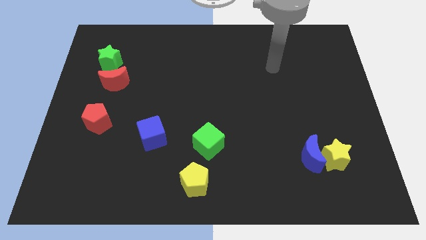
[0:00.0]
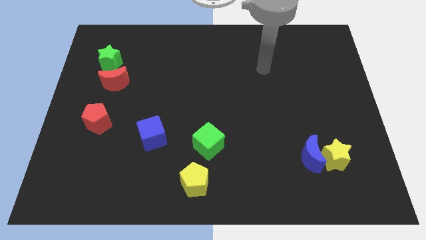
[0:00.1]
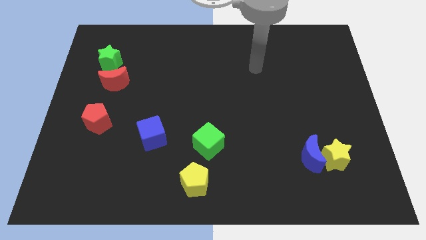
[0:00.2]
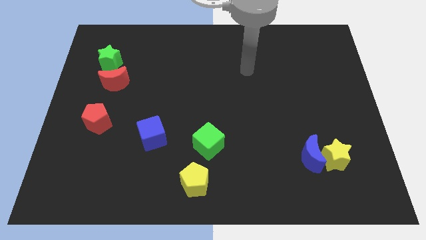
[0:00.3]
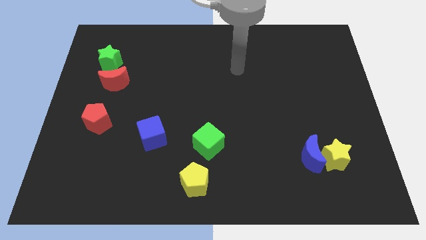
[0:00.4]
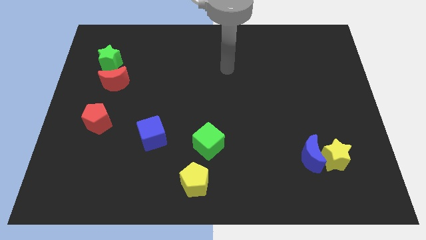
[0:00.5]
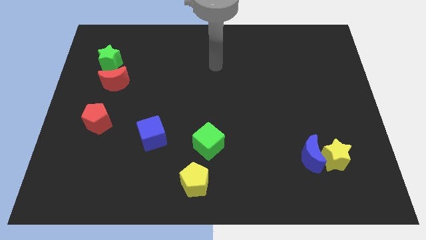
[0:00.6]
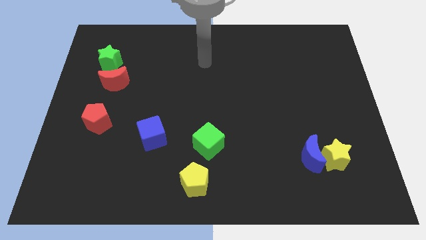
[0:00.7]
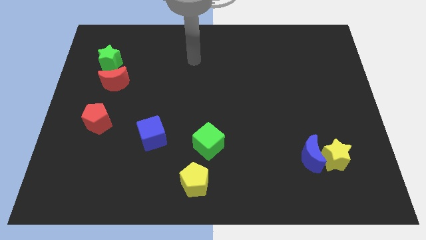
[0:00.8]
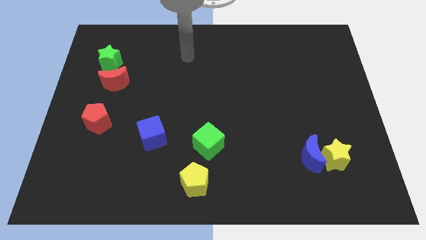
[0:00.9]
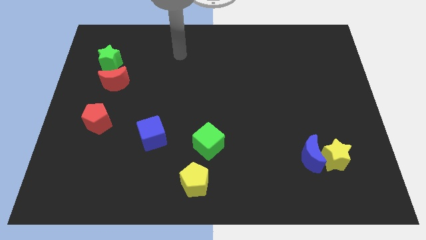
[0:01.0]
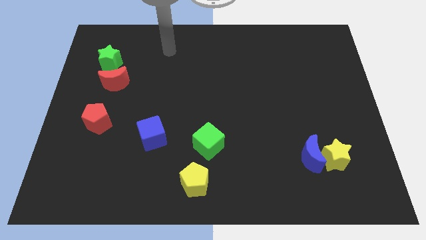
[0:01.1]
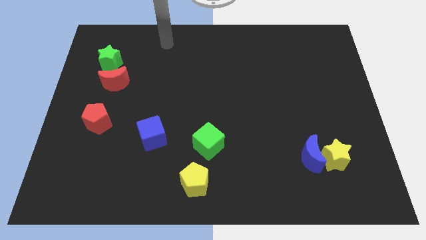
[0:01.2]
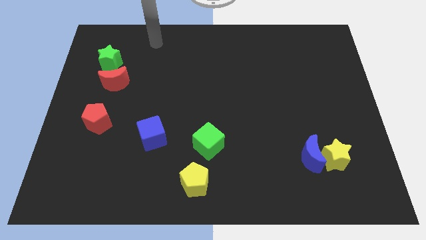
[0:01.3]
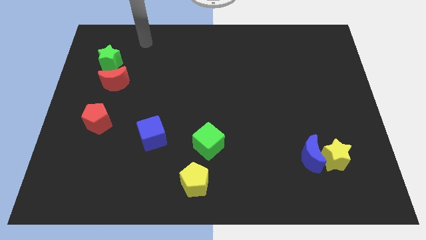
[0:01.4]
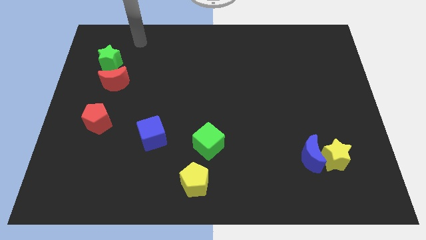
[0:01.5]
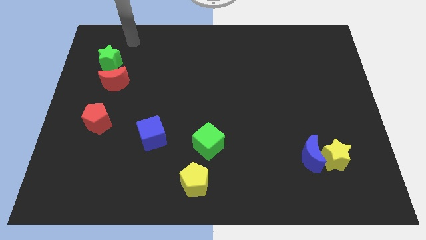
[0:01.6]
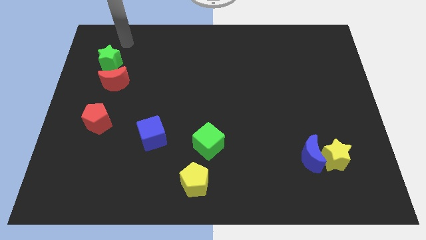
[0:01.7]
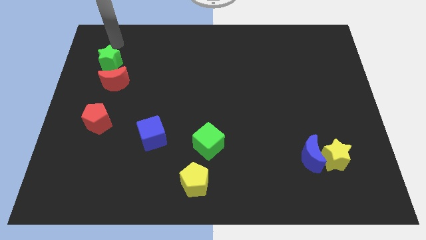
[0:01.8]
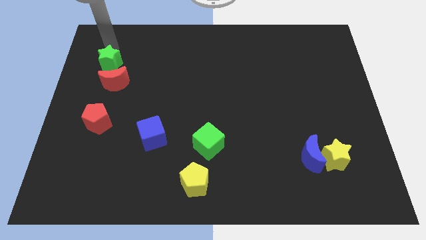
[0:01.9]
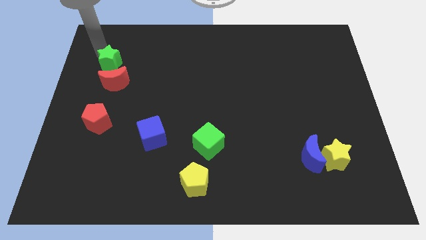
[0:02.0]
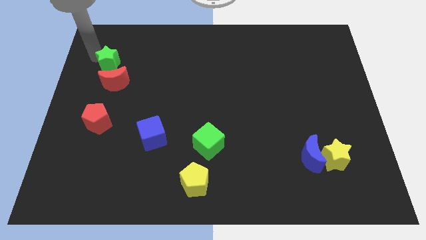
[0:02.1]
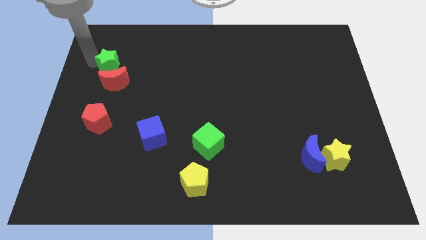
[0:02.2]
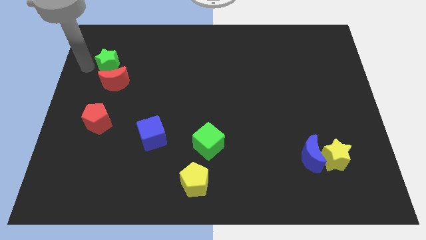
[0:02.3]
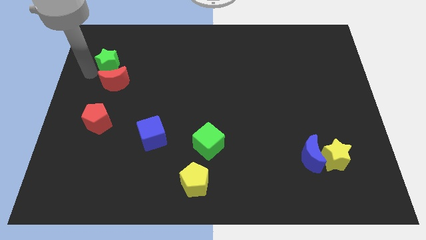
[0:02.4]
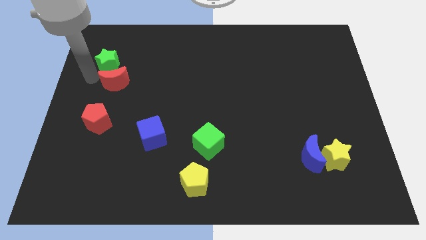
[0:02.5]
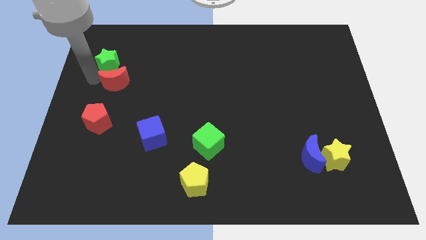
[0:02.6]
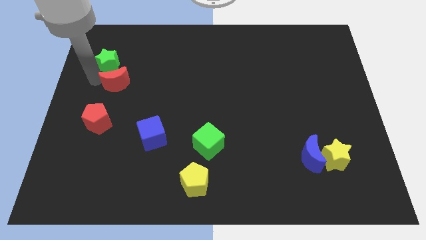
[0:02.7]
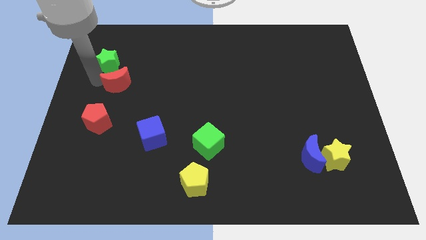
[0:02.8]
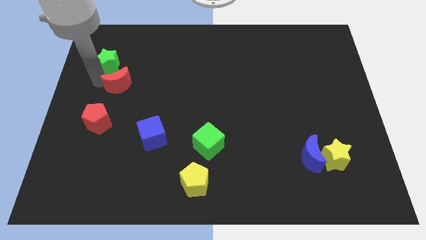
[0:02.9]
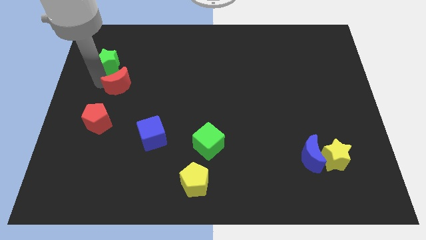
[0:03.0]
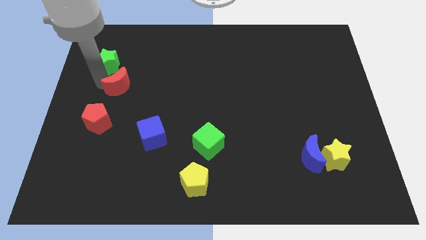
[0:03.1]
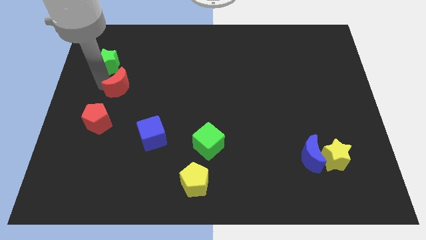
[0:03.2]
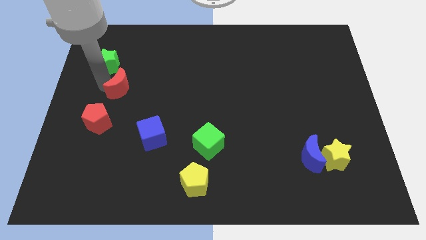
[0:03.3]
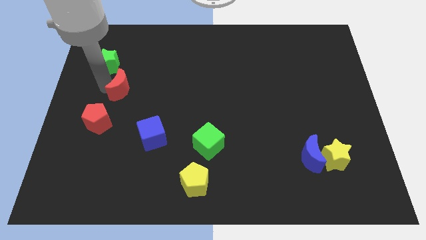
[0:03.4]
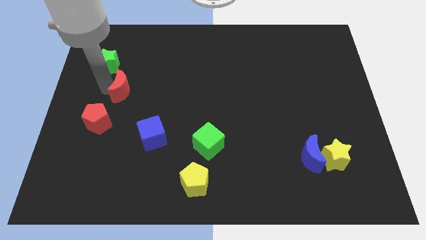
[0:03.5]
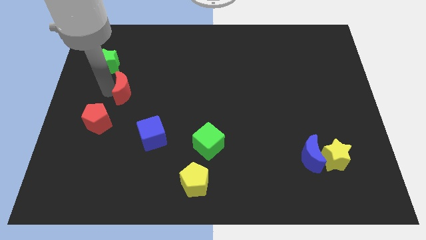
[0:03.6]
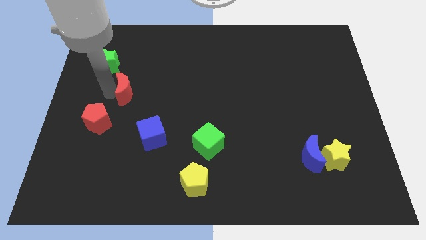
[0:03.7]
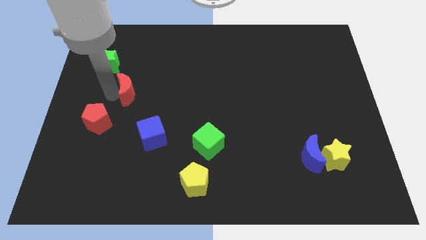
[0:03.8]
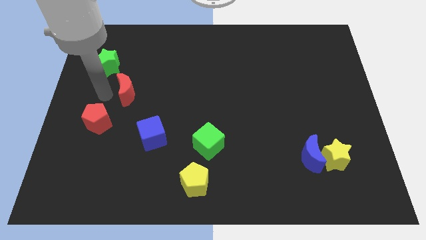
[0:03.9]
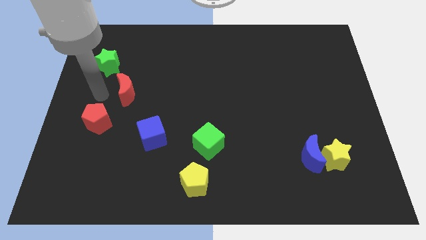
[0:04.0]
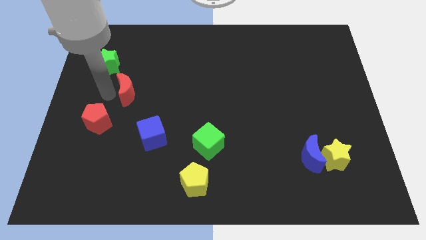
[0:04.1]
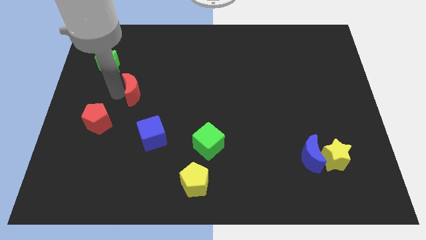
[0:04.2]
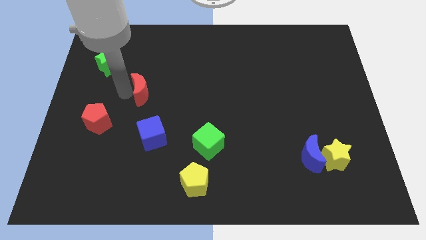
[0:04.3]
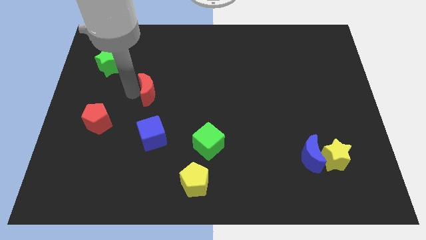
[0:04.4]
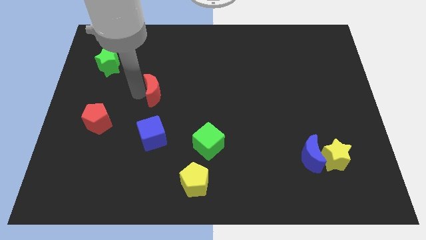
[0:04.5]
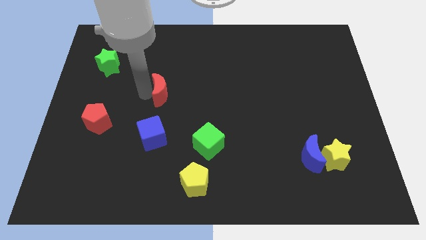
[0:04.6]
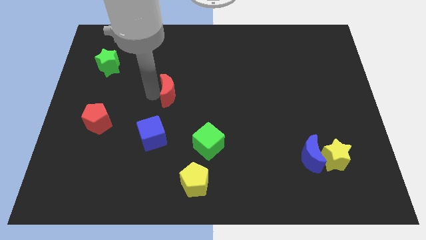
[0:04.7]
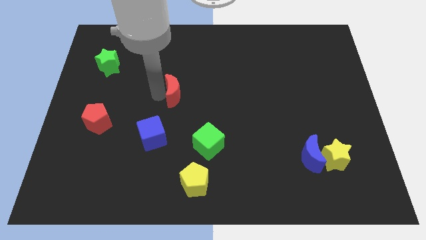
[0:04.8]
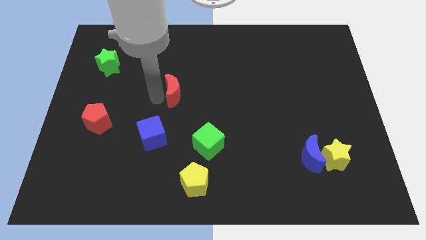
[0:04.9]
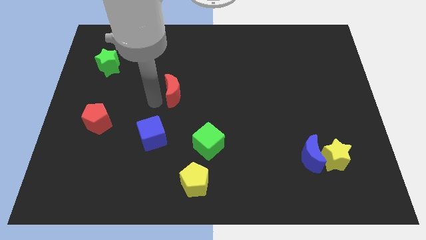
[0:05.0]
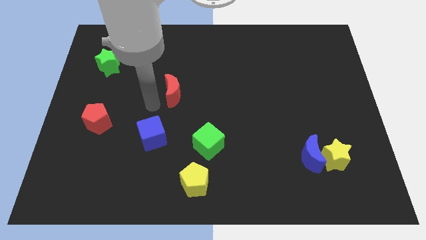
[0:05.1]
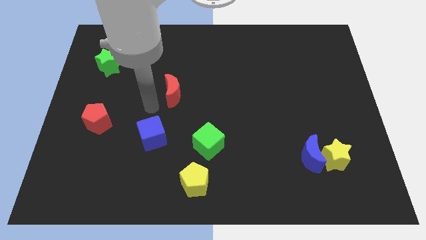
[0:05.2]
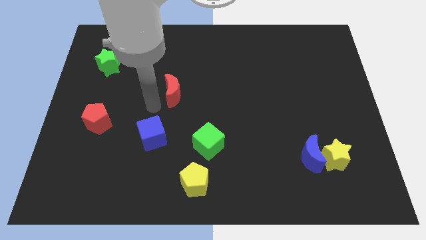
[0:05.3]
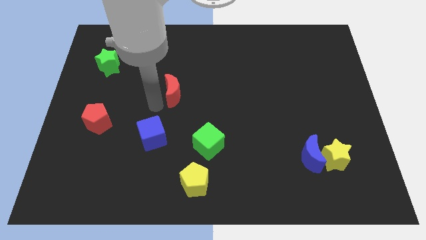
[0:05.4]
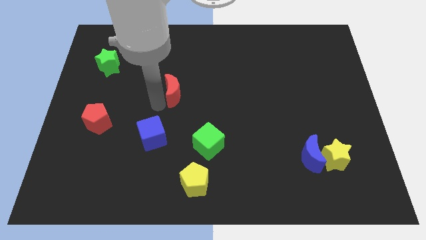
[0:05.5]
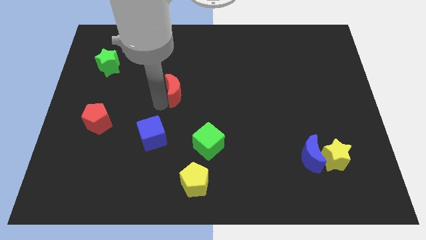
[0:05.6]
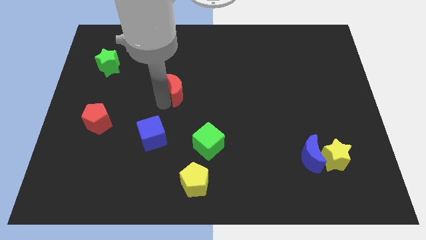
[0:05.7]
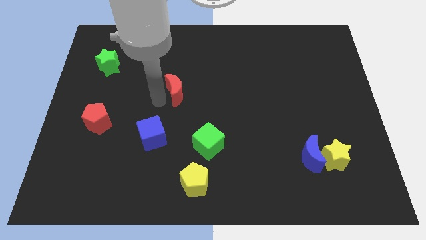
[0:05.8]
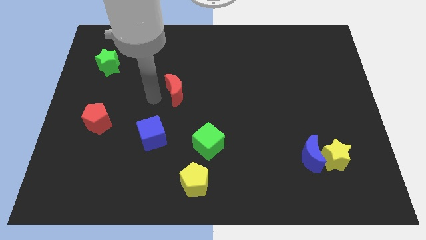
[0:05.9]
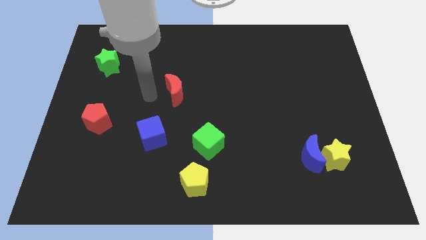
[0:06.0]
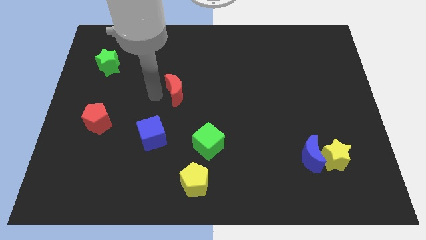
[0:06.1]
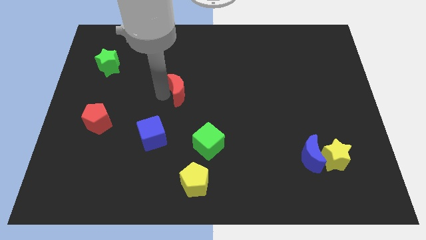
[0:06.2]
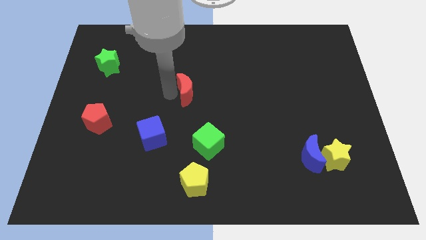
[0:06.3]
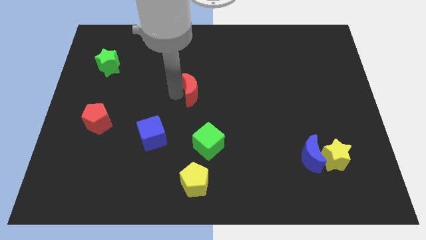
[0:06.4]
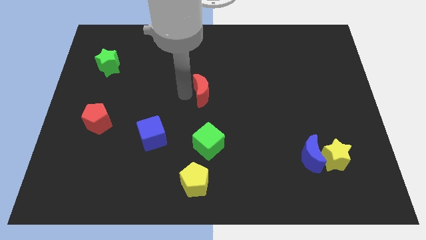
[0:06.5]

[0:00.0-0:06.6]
move the red moon to the right

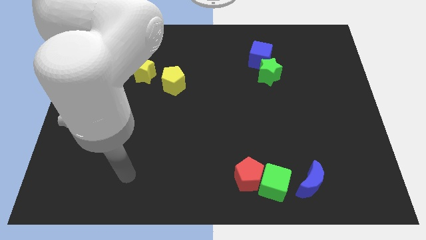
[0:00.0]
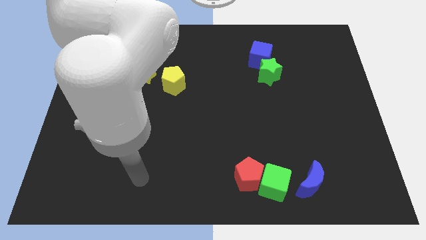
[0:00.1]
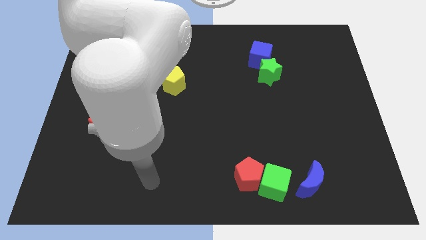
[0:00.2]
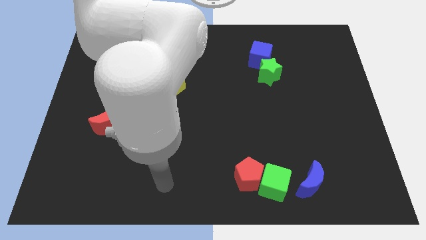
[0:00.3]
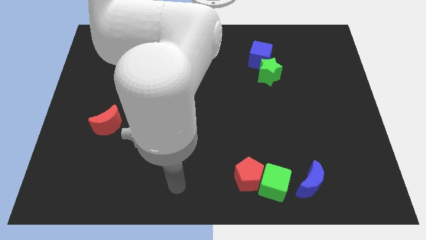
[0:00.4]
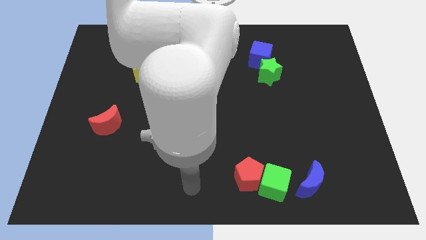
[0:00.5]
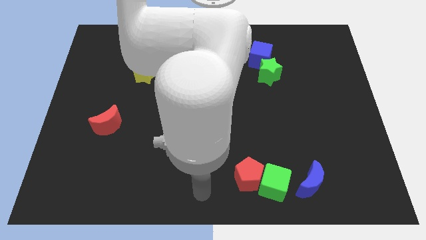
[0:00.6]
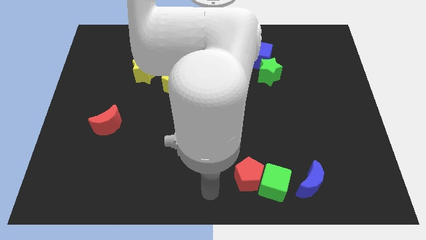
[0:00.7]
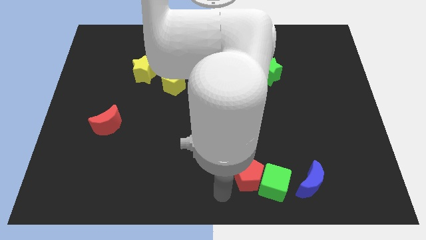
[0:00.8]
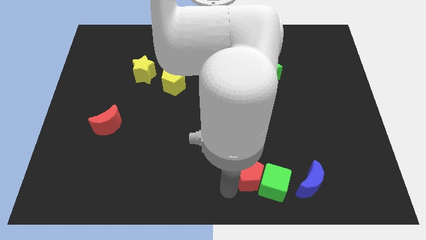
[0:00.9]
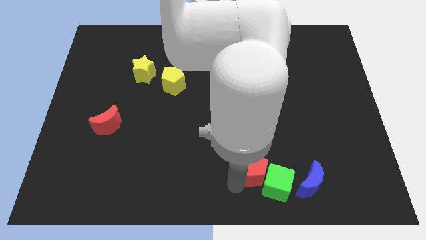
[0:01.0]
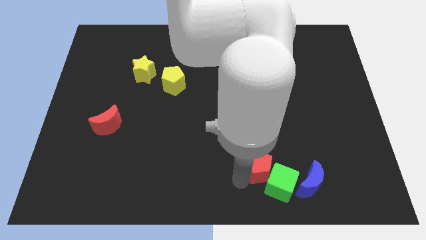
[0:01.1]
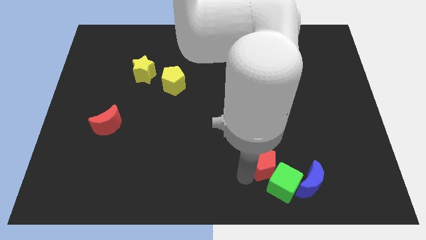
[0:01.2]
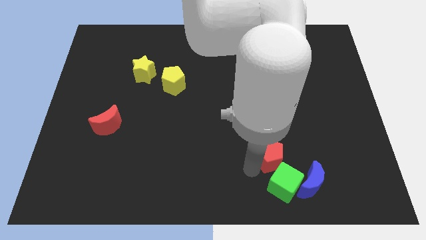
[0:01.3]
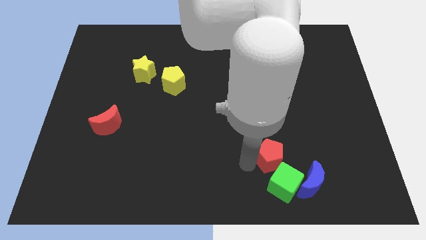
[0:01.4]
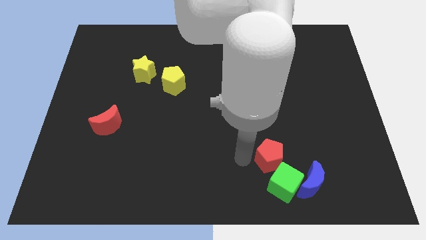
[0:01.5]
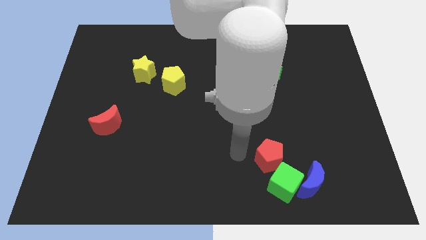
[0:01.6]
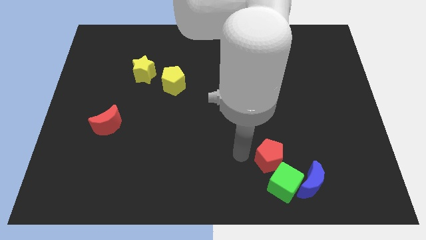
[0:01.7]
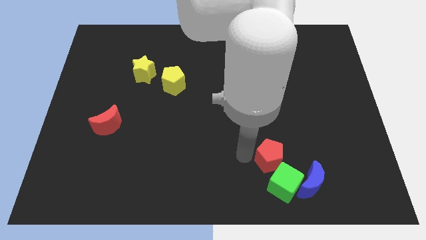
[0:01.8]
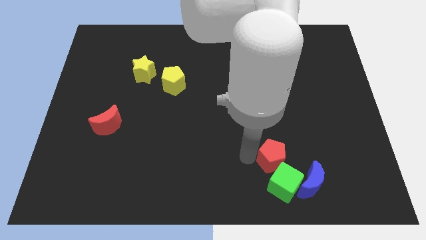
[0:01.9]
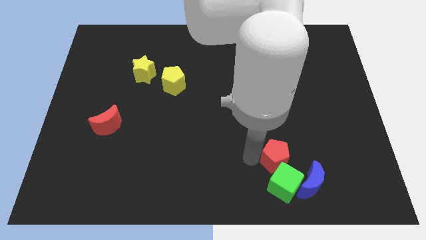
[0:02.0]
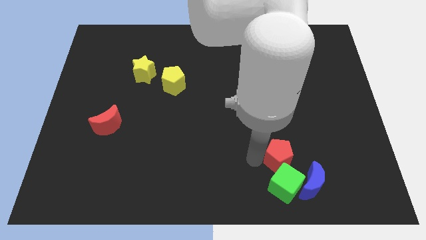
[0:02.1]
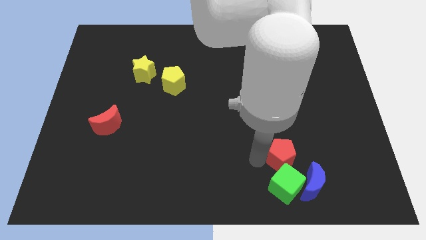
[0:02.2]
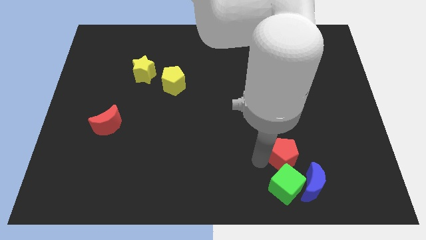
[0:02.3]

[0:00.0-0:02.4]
slide the red pentagon right somewhat
